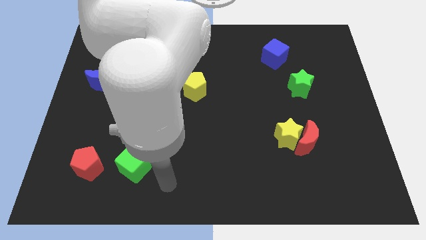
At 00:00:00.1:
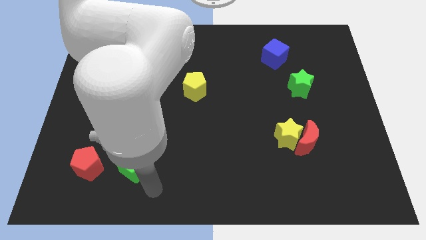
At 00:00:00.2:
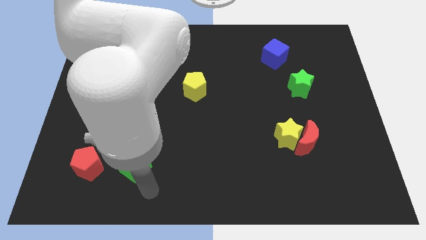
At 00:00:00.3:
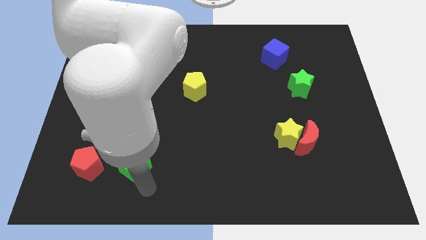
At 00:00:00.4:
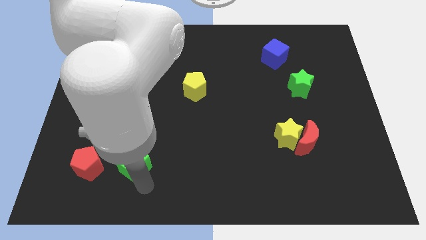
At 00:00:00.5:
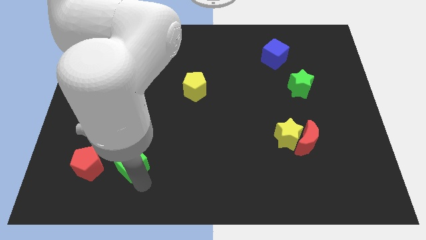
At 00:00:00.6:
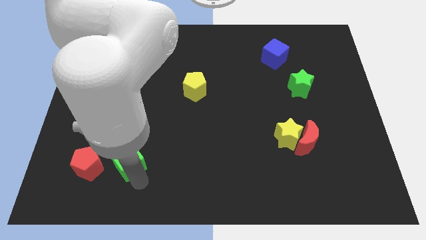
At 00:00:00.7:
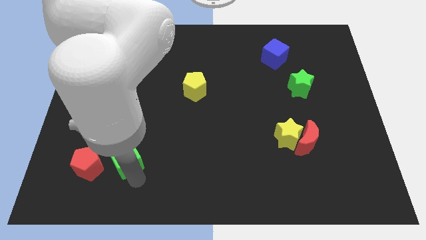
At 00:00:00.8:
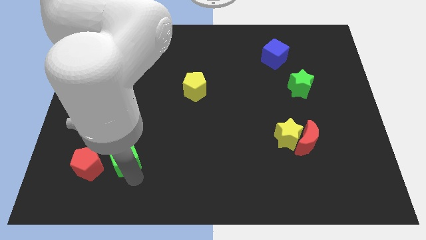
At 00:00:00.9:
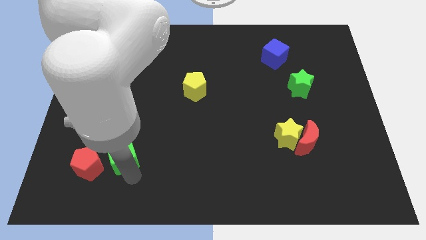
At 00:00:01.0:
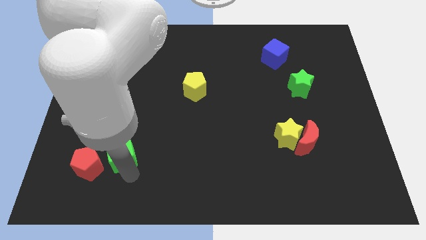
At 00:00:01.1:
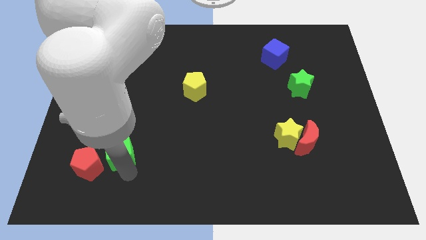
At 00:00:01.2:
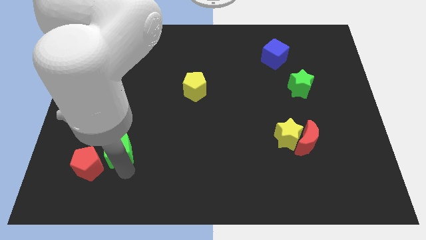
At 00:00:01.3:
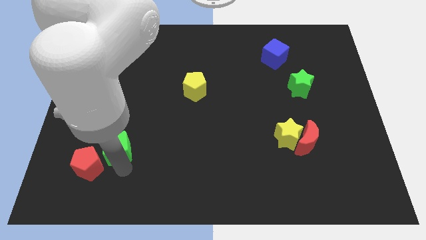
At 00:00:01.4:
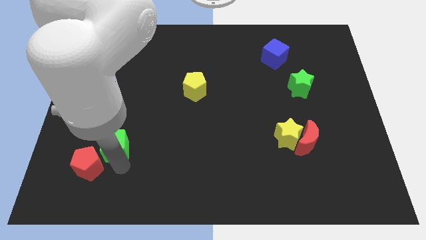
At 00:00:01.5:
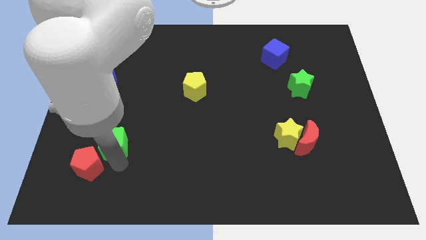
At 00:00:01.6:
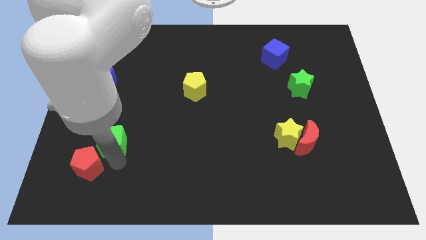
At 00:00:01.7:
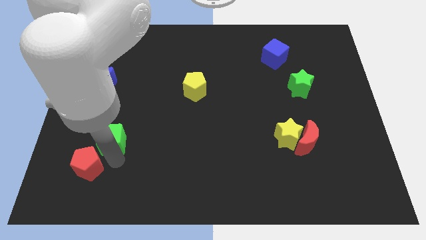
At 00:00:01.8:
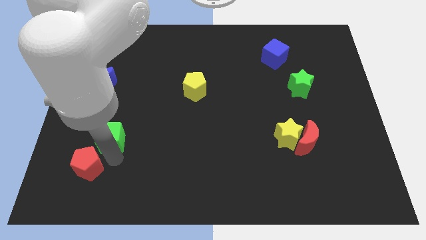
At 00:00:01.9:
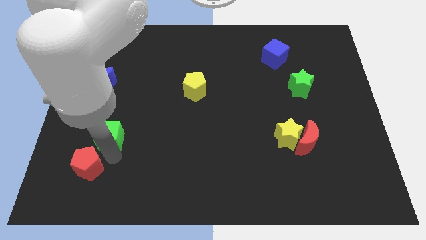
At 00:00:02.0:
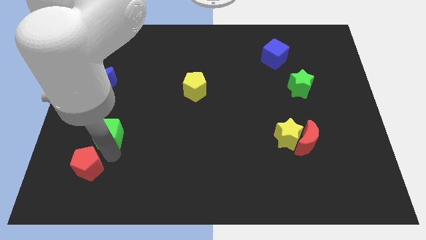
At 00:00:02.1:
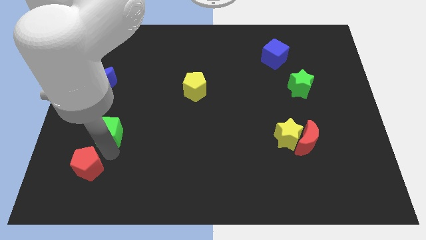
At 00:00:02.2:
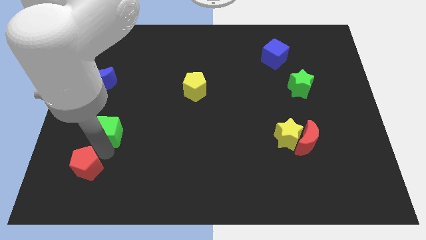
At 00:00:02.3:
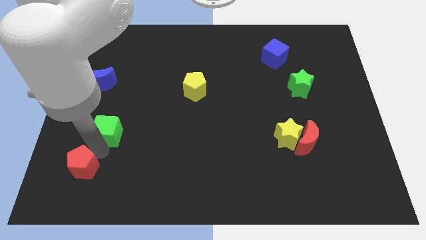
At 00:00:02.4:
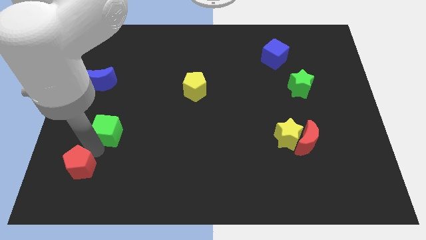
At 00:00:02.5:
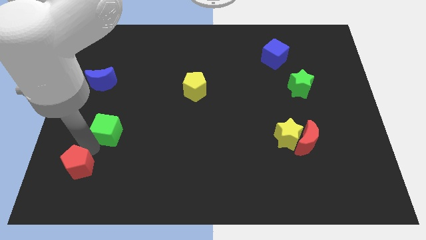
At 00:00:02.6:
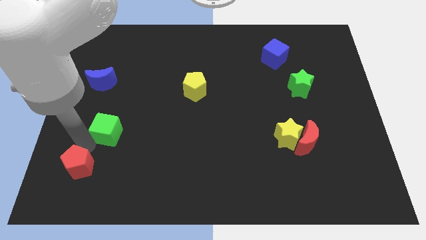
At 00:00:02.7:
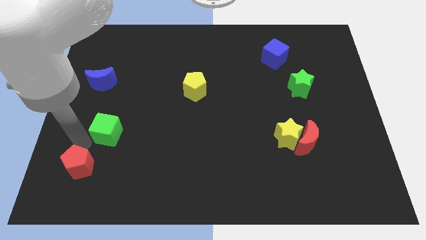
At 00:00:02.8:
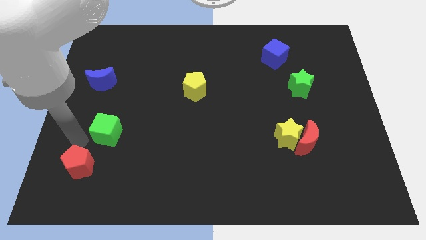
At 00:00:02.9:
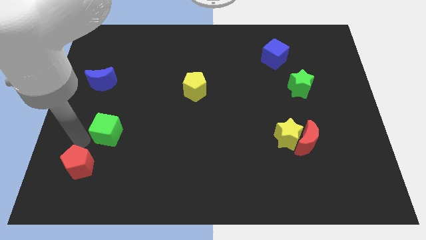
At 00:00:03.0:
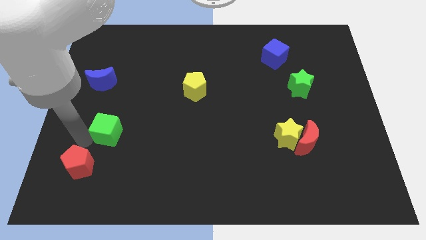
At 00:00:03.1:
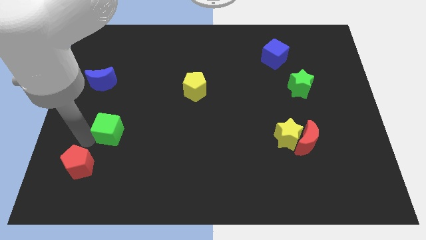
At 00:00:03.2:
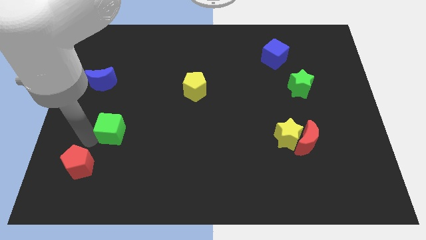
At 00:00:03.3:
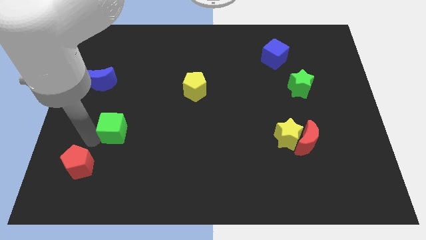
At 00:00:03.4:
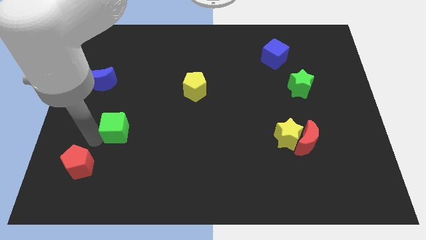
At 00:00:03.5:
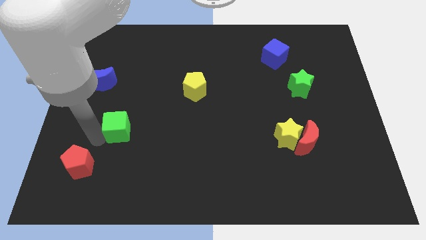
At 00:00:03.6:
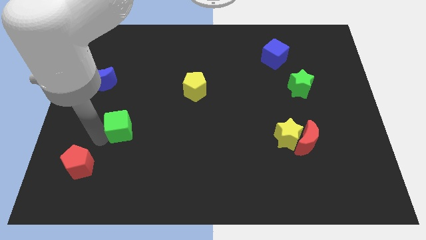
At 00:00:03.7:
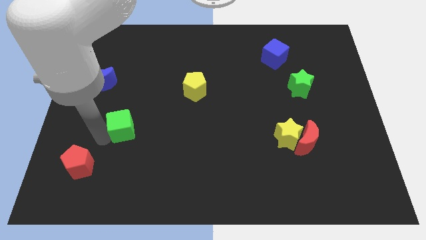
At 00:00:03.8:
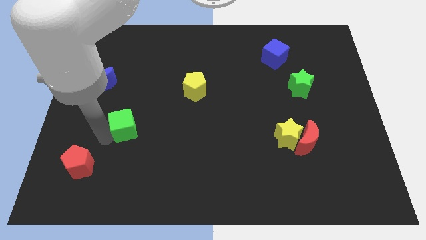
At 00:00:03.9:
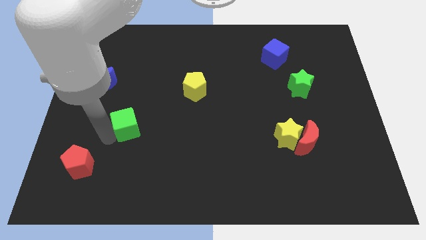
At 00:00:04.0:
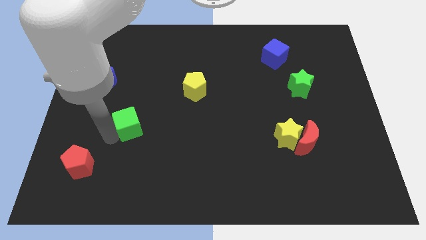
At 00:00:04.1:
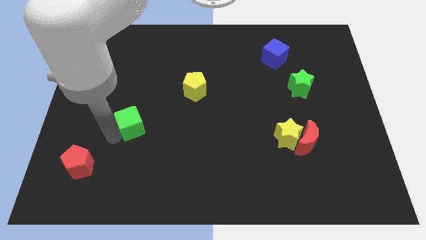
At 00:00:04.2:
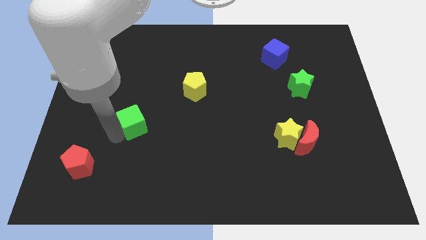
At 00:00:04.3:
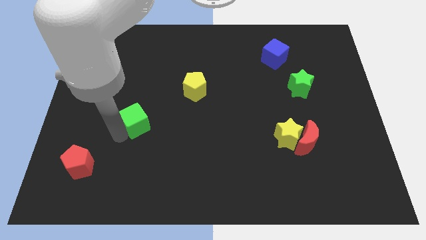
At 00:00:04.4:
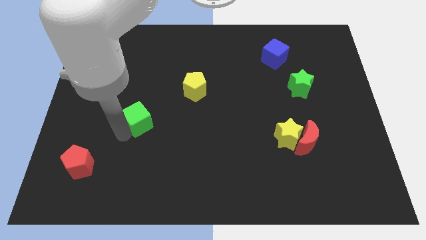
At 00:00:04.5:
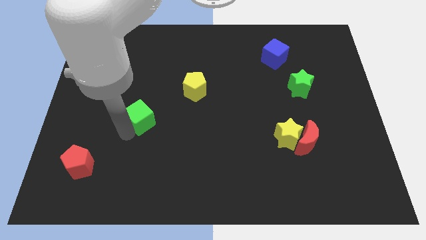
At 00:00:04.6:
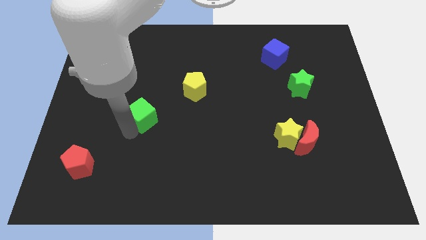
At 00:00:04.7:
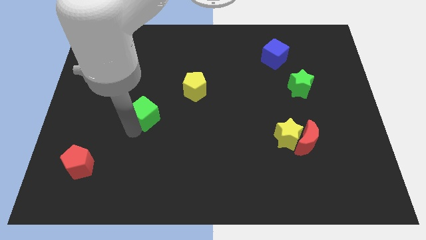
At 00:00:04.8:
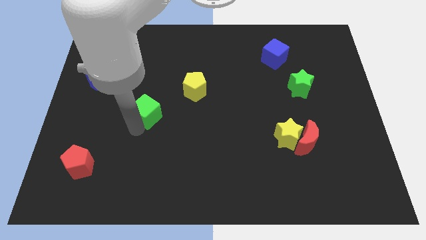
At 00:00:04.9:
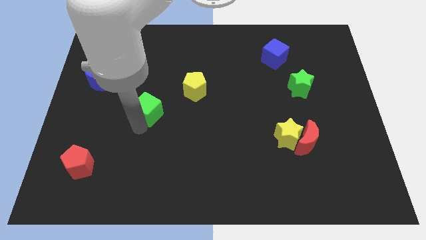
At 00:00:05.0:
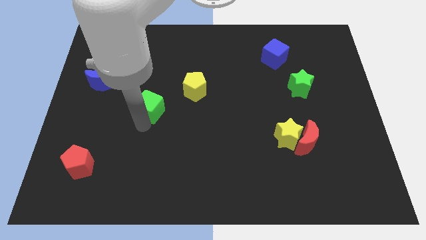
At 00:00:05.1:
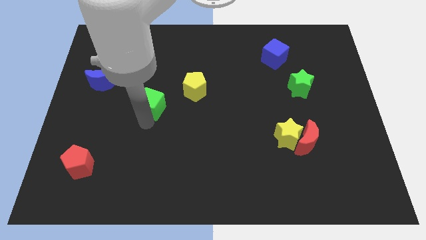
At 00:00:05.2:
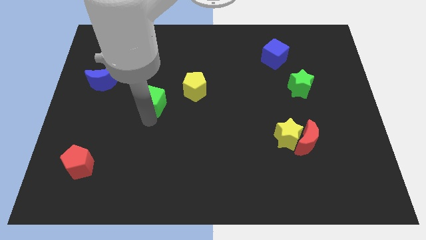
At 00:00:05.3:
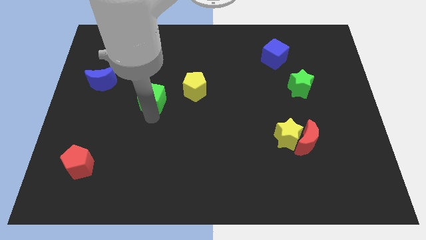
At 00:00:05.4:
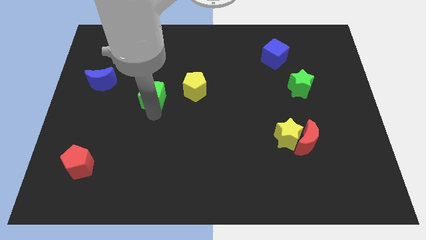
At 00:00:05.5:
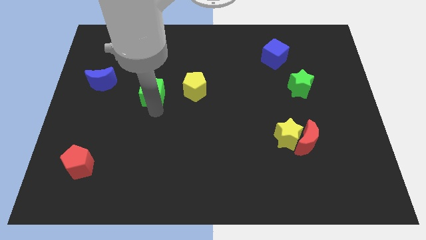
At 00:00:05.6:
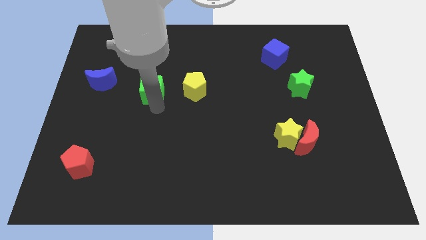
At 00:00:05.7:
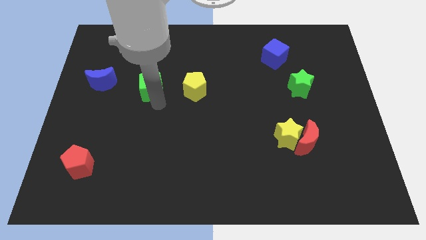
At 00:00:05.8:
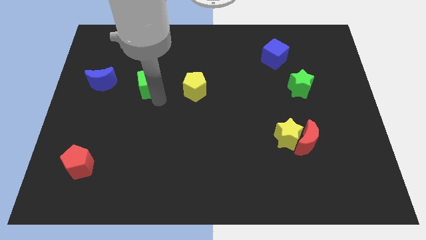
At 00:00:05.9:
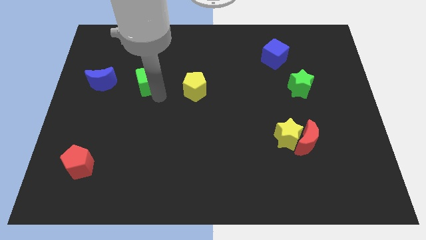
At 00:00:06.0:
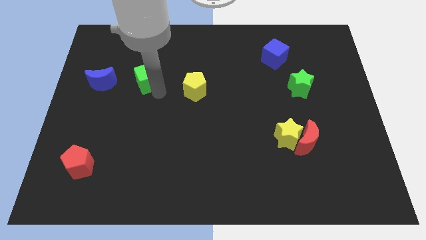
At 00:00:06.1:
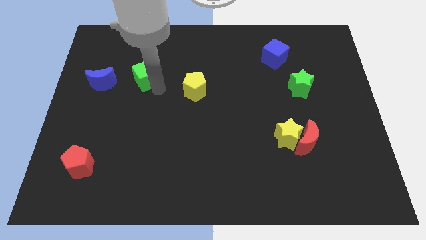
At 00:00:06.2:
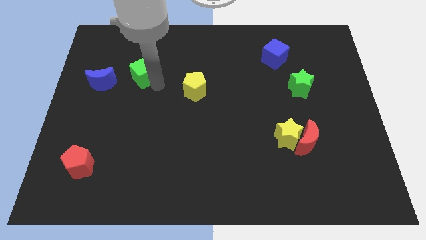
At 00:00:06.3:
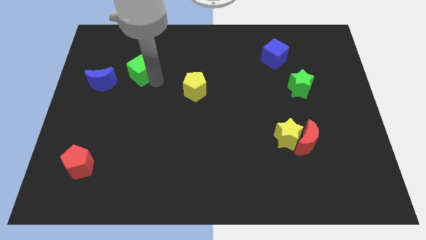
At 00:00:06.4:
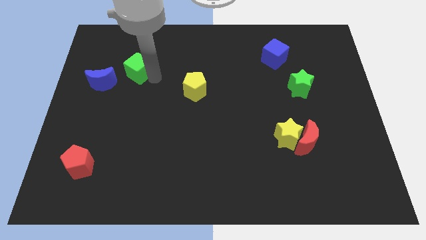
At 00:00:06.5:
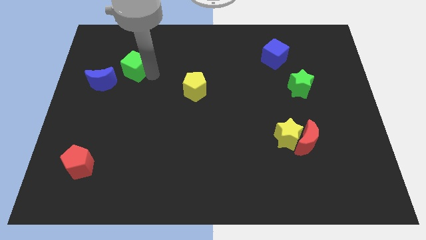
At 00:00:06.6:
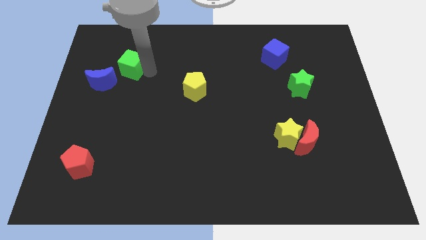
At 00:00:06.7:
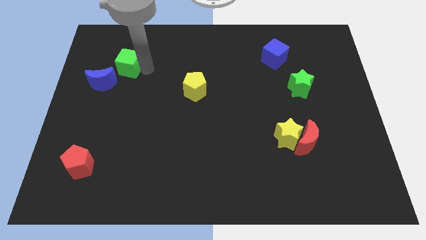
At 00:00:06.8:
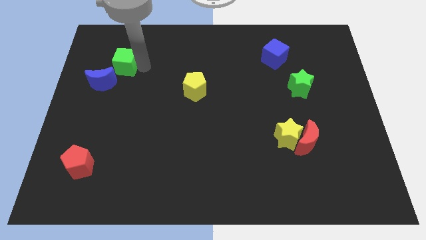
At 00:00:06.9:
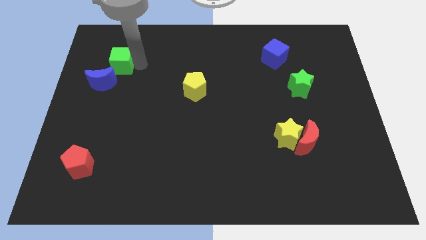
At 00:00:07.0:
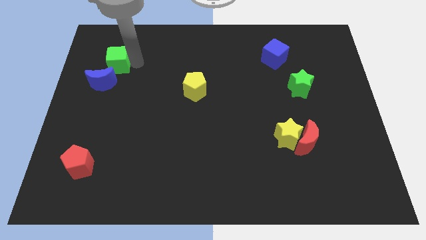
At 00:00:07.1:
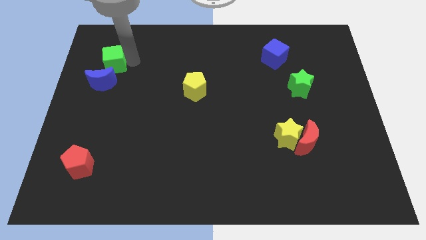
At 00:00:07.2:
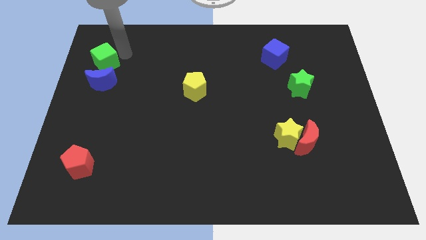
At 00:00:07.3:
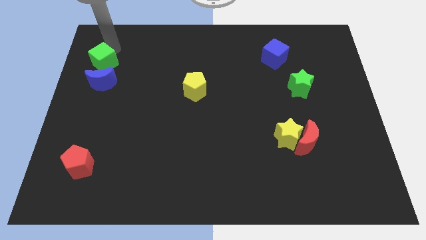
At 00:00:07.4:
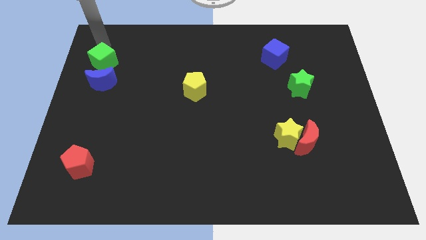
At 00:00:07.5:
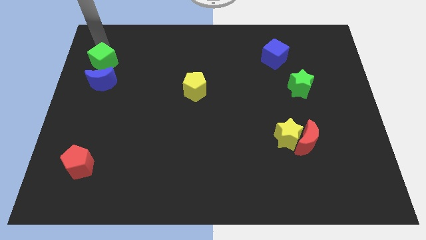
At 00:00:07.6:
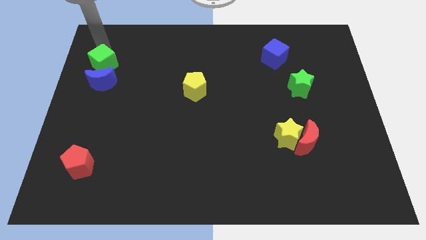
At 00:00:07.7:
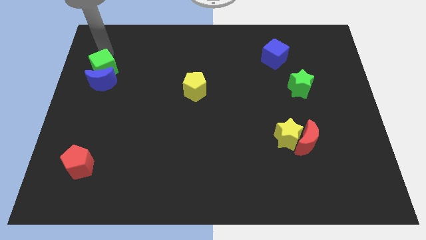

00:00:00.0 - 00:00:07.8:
push the green cube to the blue moon
